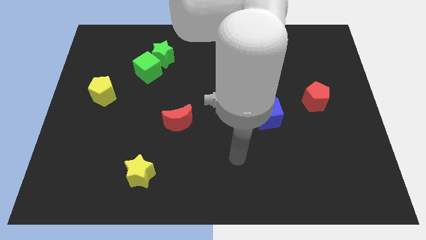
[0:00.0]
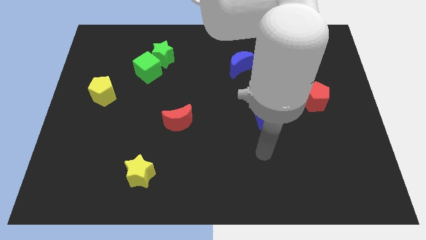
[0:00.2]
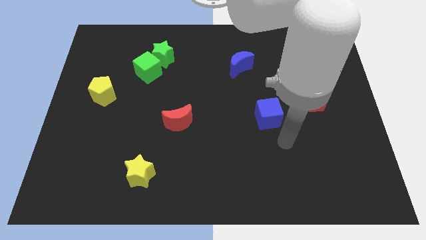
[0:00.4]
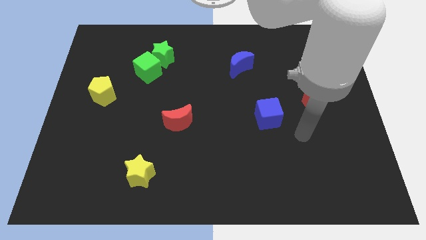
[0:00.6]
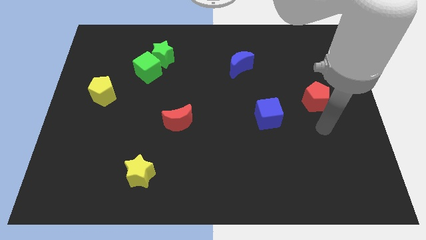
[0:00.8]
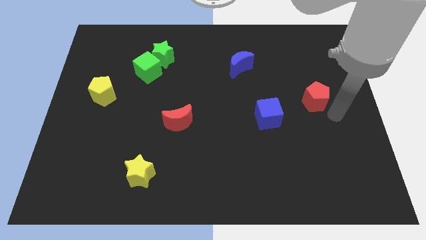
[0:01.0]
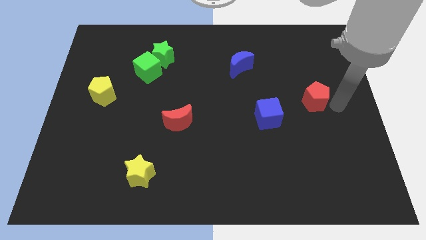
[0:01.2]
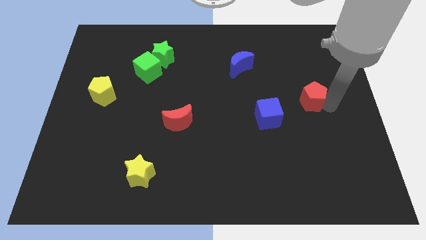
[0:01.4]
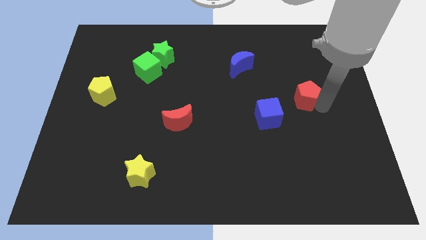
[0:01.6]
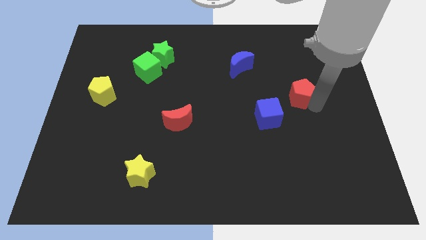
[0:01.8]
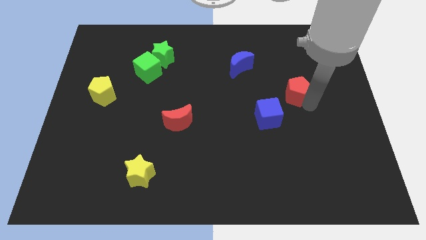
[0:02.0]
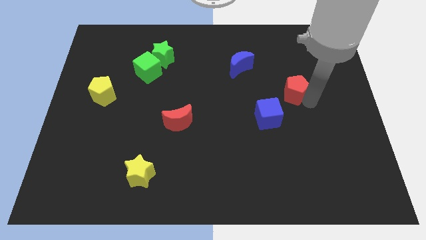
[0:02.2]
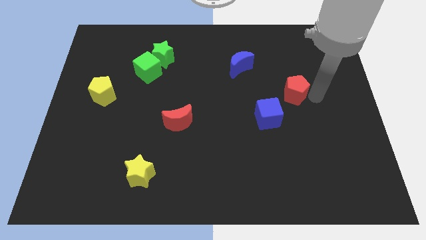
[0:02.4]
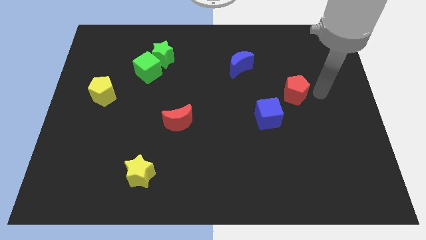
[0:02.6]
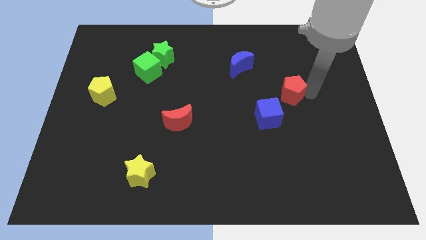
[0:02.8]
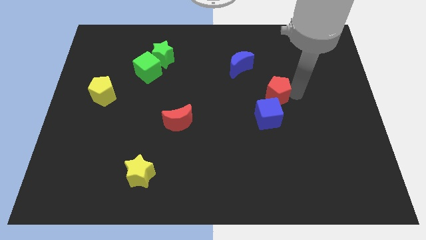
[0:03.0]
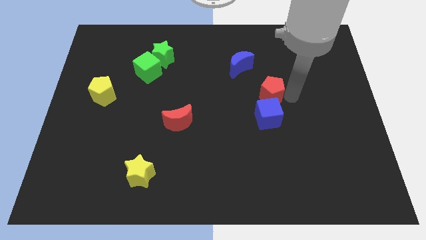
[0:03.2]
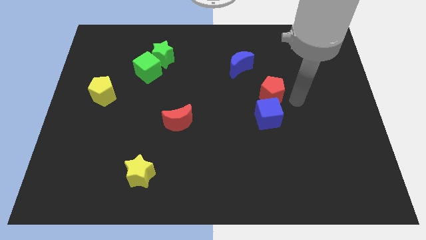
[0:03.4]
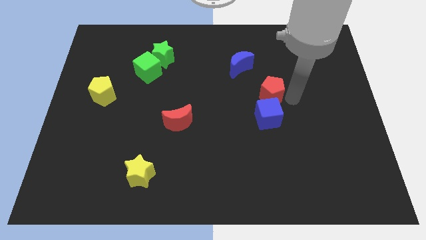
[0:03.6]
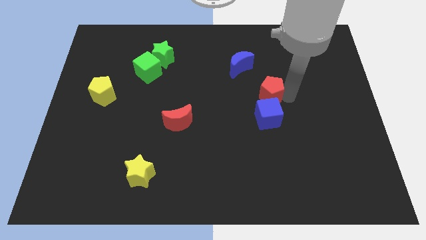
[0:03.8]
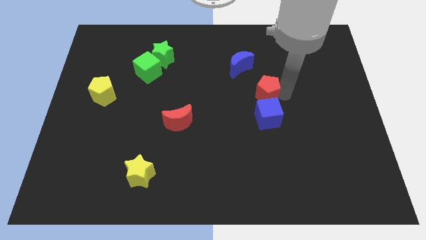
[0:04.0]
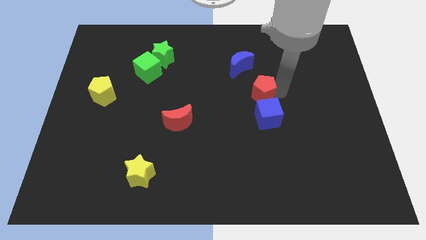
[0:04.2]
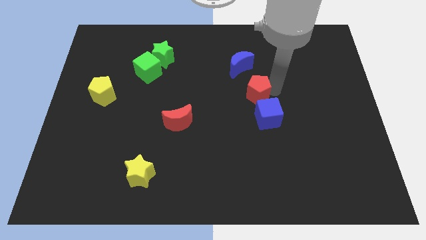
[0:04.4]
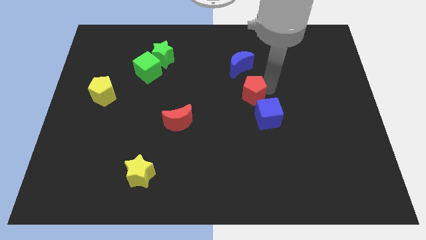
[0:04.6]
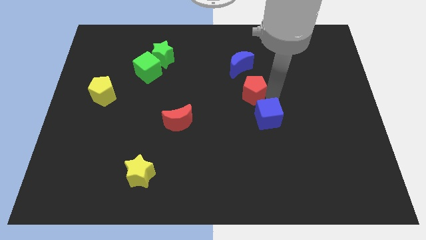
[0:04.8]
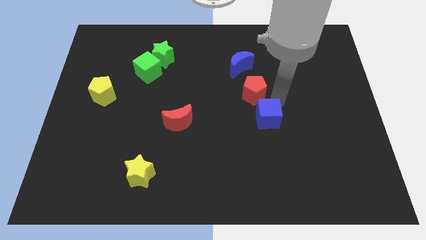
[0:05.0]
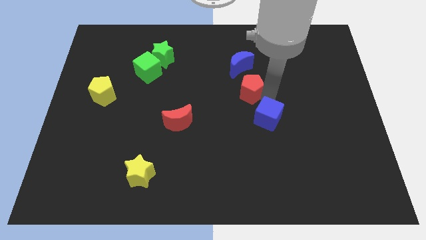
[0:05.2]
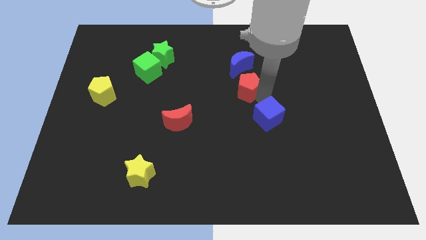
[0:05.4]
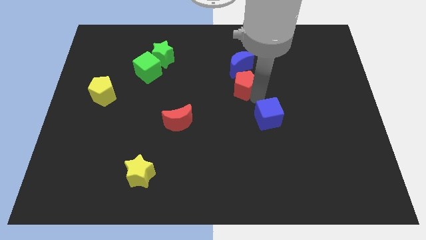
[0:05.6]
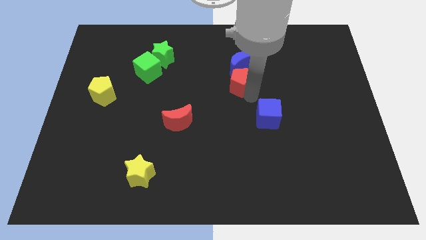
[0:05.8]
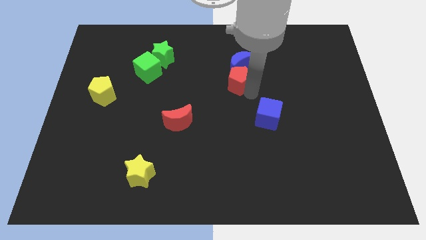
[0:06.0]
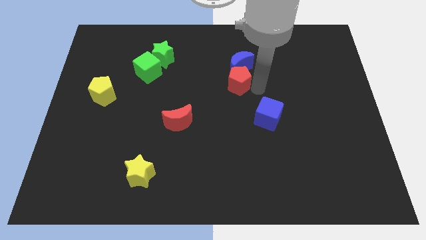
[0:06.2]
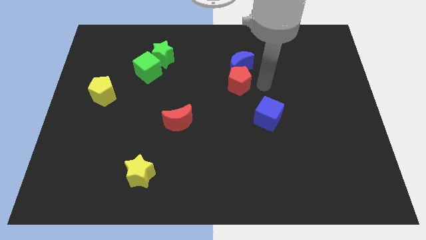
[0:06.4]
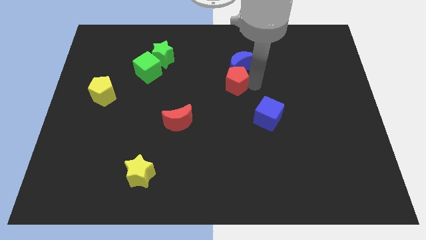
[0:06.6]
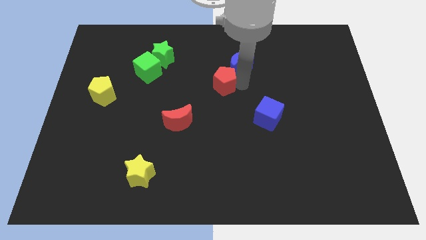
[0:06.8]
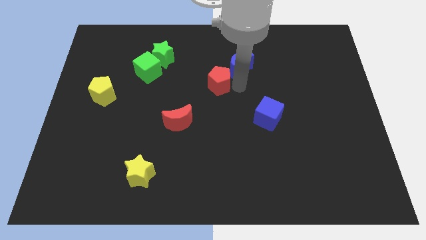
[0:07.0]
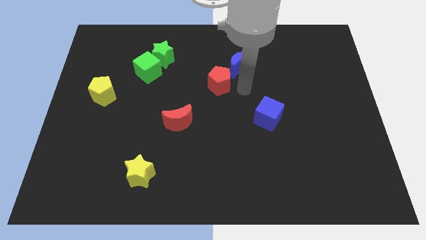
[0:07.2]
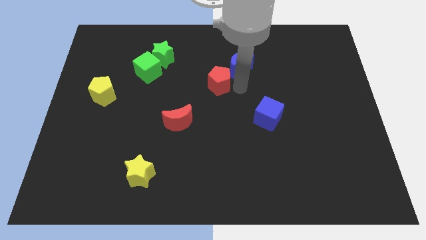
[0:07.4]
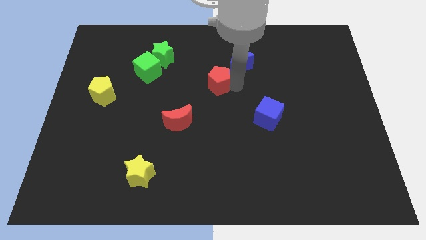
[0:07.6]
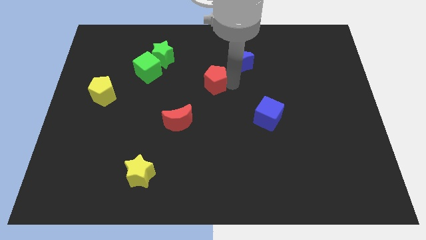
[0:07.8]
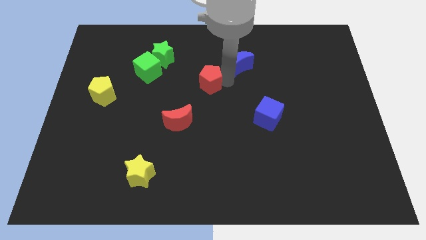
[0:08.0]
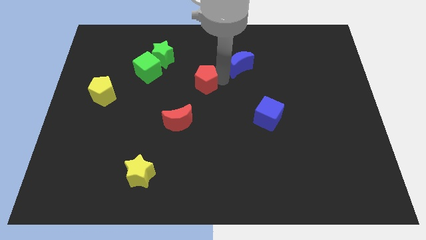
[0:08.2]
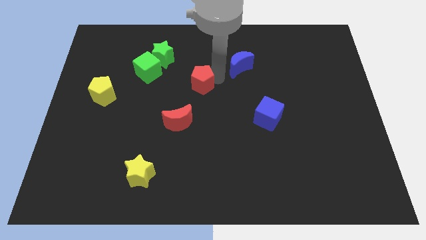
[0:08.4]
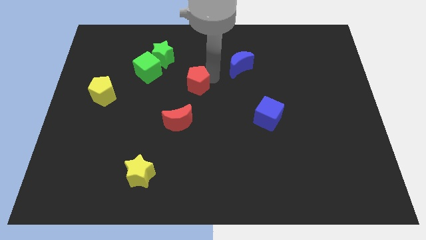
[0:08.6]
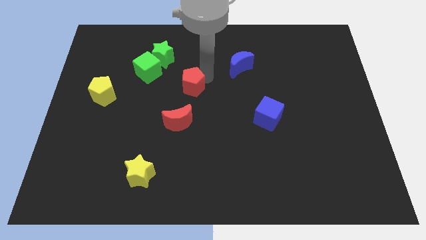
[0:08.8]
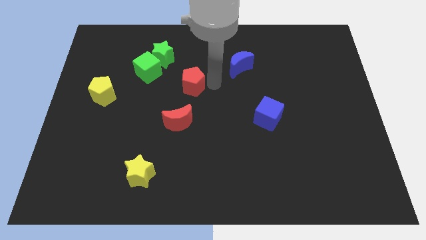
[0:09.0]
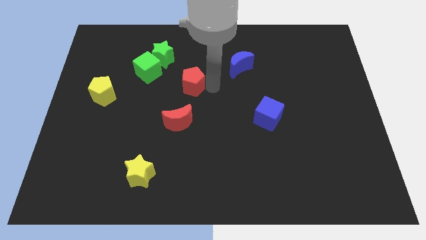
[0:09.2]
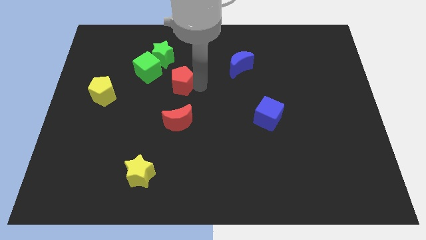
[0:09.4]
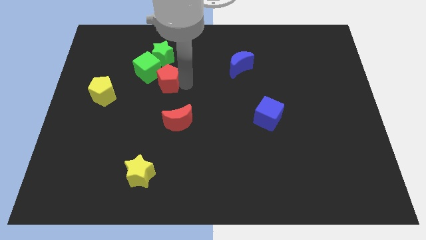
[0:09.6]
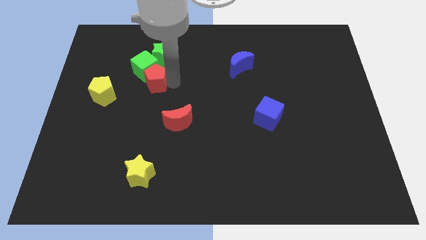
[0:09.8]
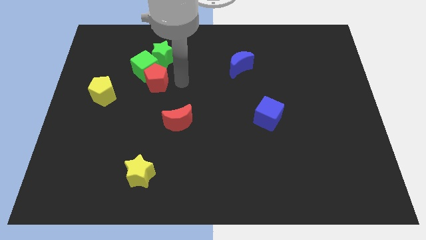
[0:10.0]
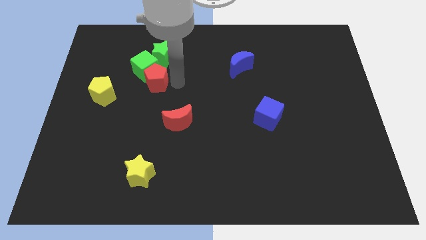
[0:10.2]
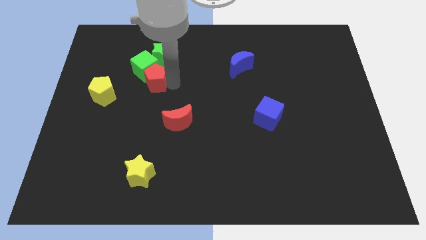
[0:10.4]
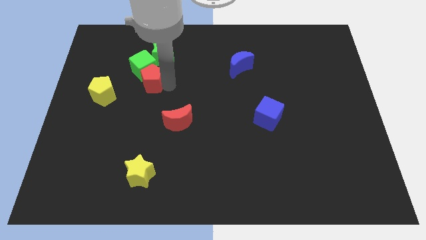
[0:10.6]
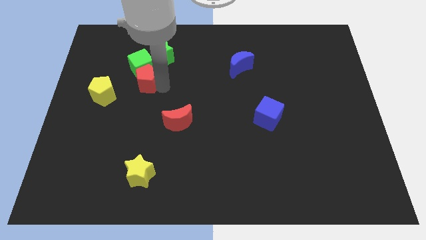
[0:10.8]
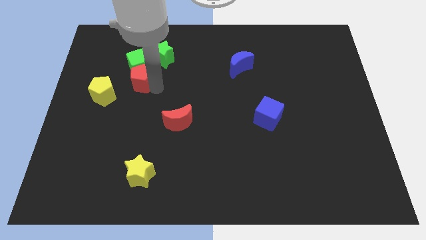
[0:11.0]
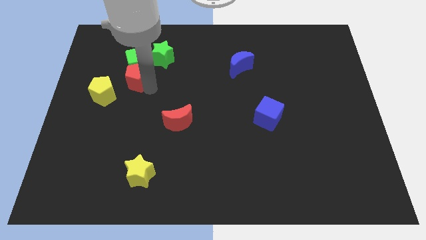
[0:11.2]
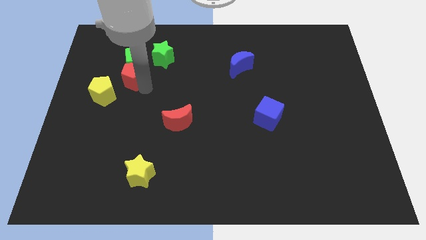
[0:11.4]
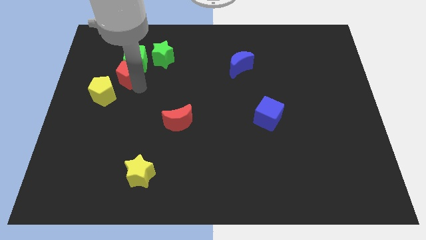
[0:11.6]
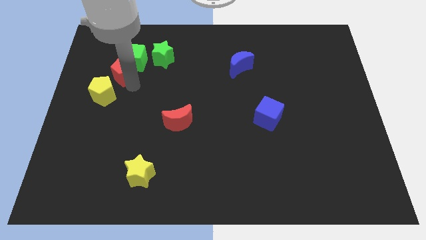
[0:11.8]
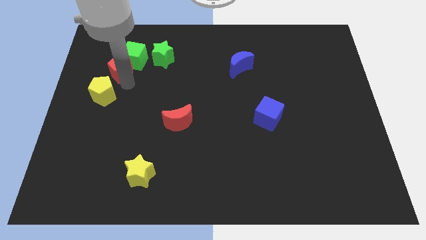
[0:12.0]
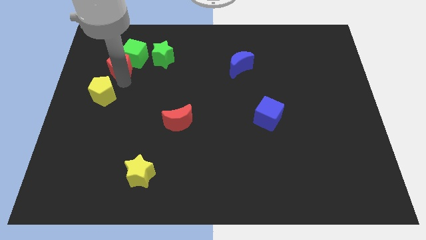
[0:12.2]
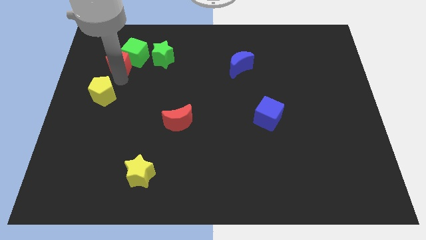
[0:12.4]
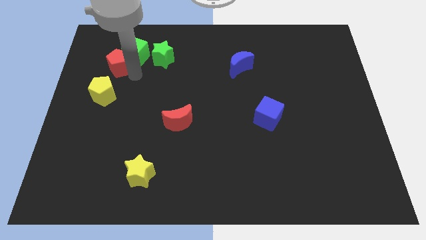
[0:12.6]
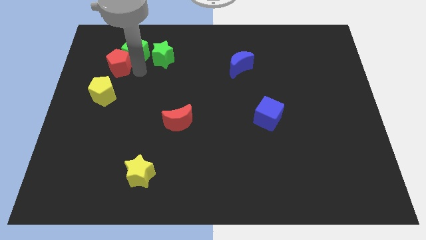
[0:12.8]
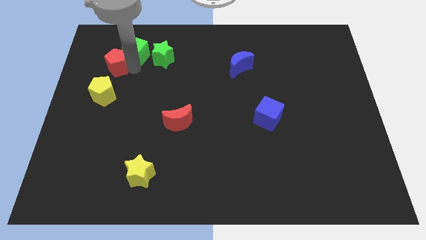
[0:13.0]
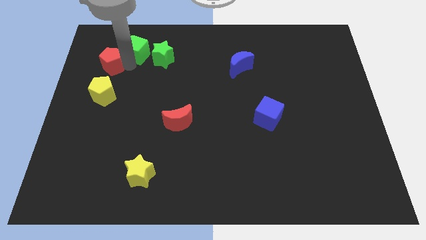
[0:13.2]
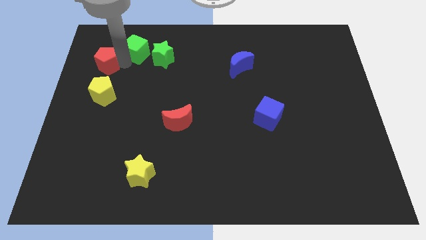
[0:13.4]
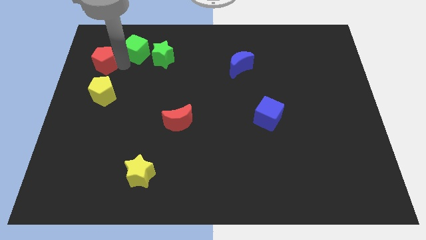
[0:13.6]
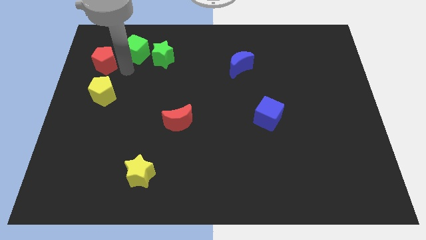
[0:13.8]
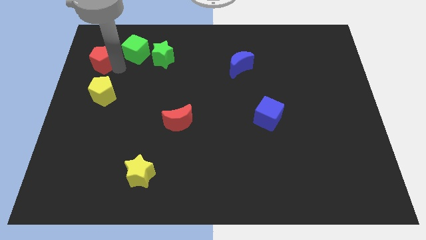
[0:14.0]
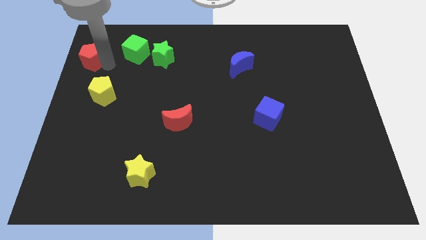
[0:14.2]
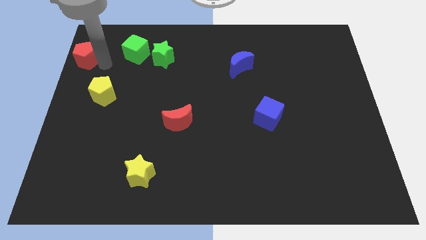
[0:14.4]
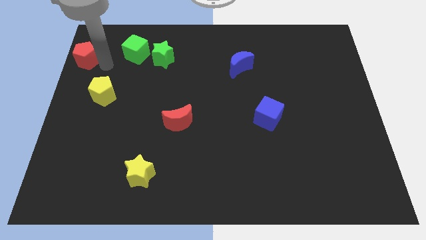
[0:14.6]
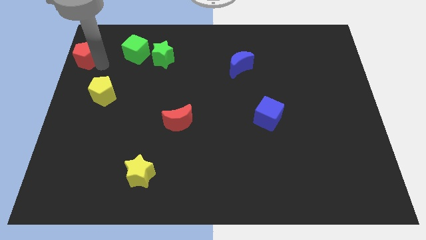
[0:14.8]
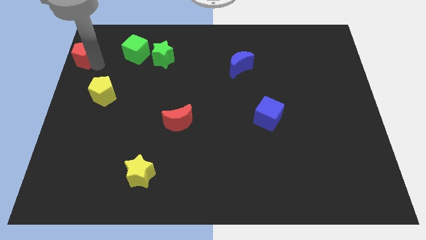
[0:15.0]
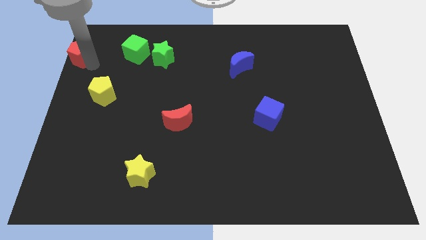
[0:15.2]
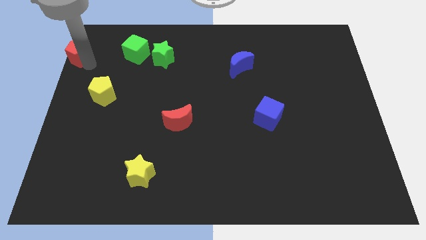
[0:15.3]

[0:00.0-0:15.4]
put the red pentagon to the top left corner

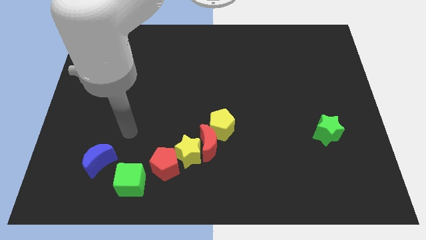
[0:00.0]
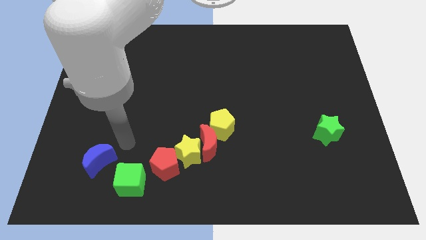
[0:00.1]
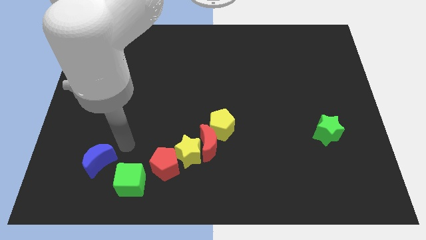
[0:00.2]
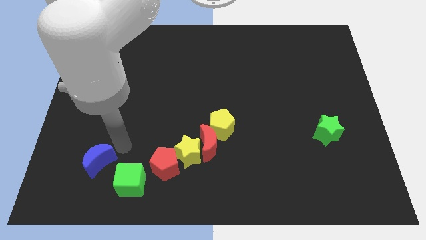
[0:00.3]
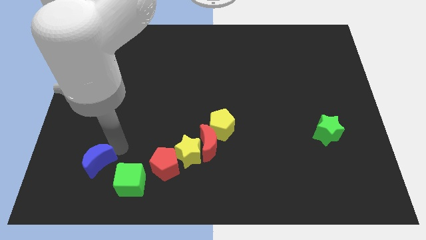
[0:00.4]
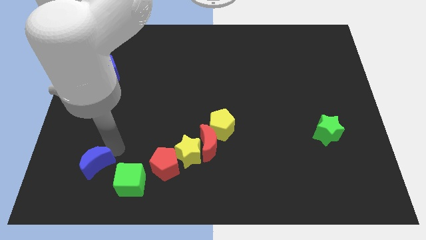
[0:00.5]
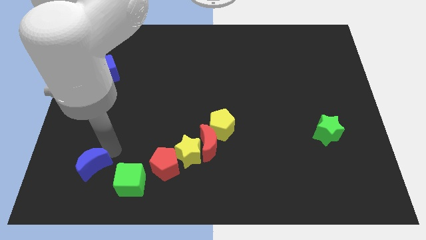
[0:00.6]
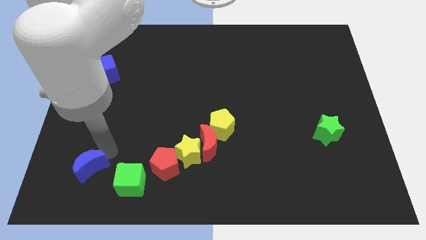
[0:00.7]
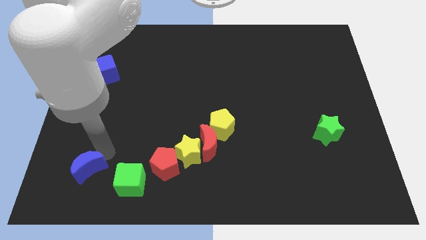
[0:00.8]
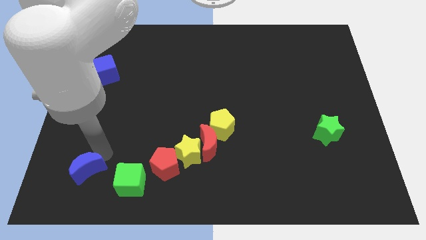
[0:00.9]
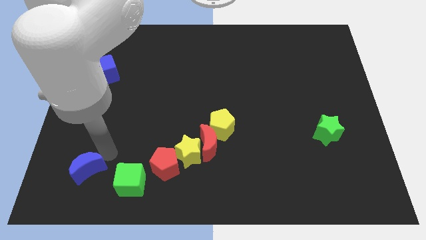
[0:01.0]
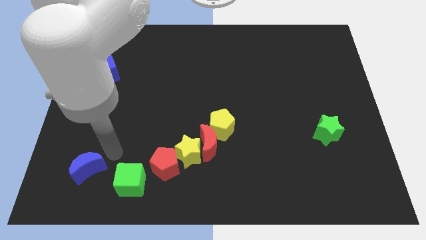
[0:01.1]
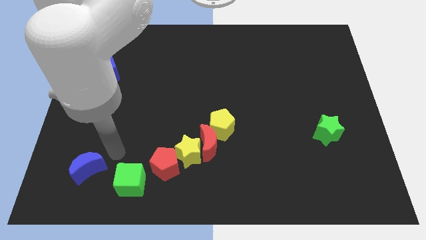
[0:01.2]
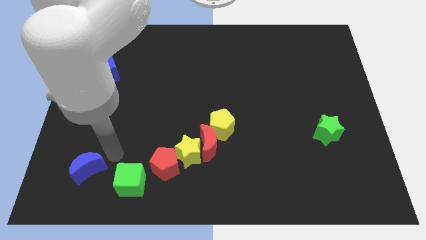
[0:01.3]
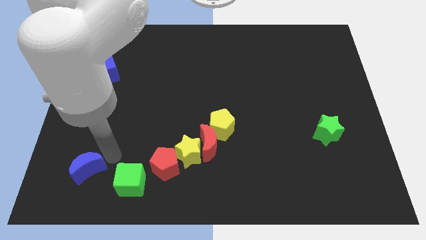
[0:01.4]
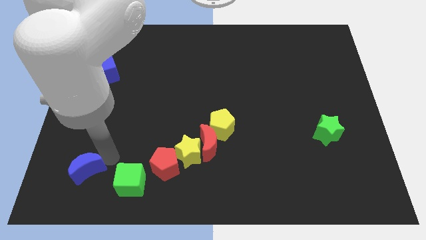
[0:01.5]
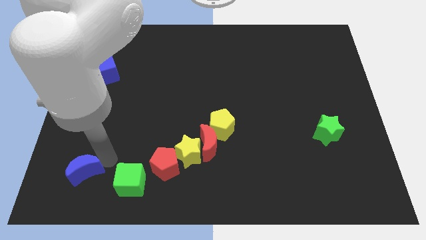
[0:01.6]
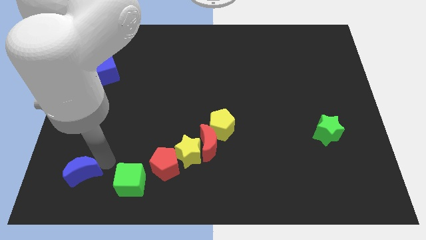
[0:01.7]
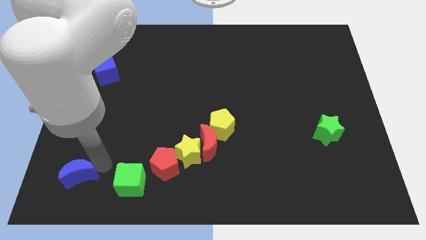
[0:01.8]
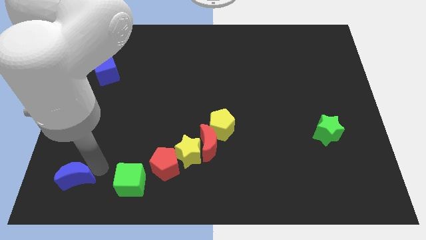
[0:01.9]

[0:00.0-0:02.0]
put the blue moon to the bottom left corner
